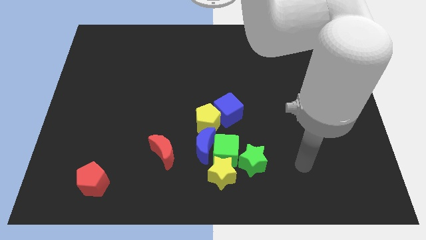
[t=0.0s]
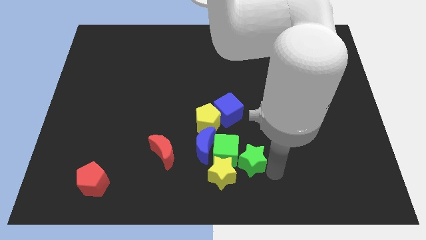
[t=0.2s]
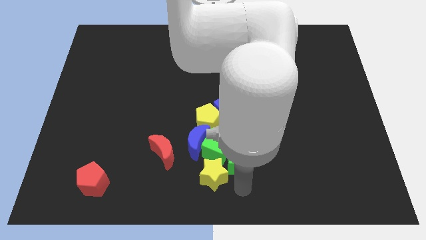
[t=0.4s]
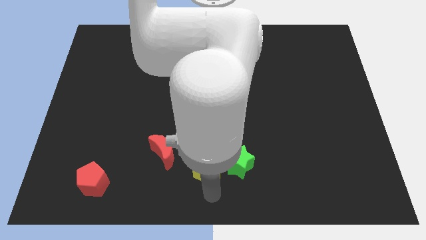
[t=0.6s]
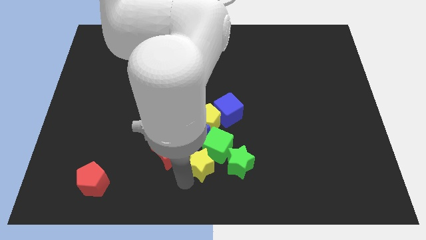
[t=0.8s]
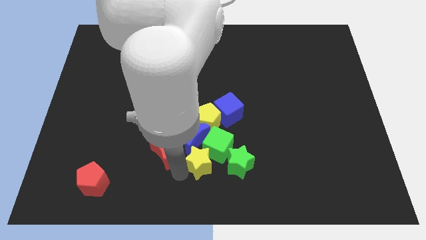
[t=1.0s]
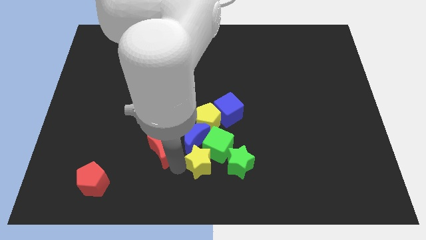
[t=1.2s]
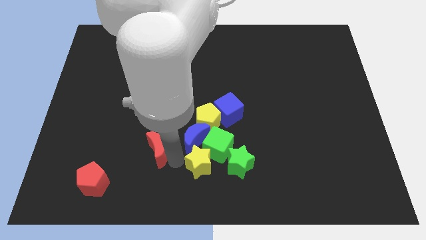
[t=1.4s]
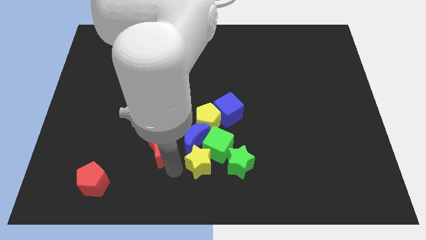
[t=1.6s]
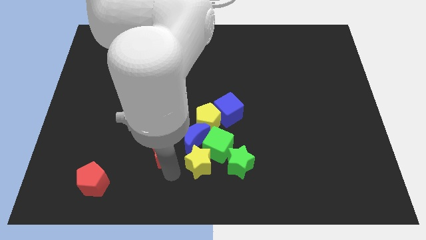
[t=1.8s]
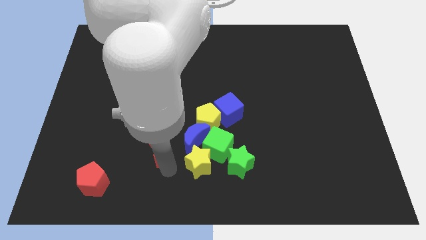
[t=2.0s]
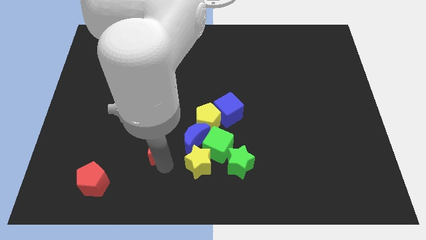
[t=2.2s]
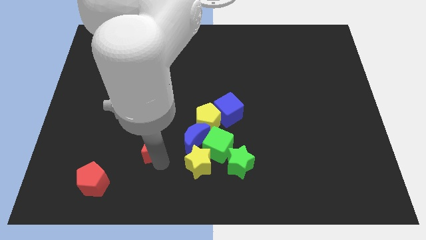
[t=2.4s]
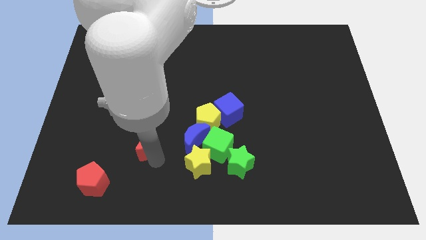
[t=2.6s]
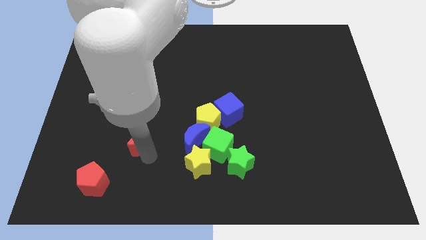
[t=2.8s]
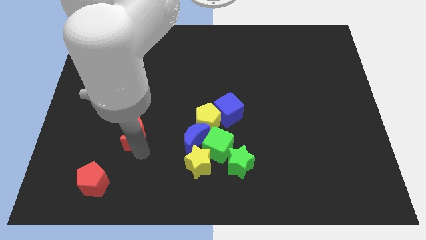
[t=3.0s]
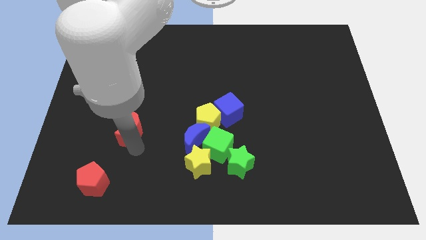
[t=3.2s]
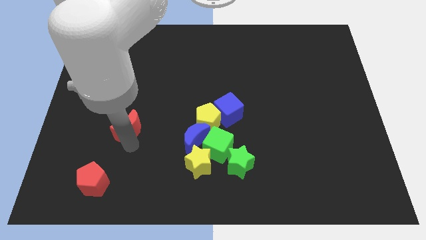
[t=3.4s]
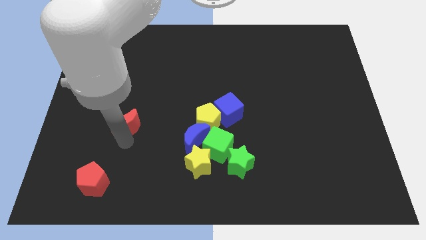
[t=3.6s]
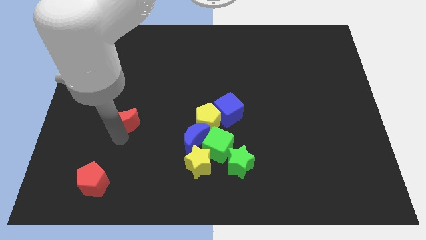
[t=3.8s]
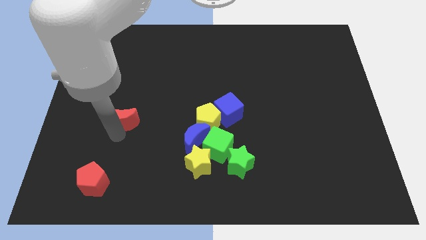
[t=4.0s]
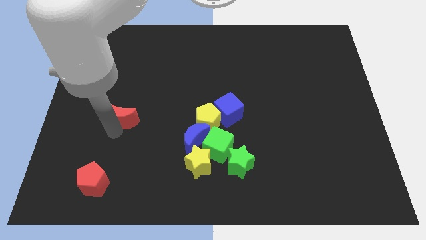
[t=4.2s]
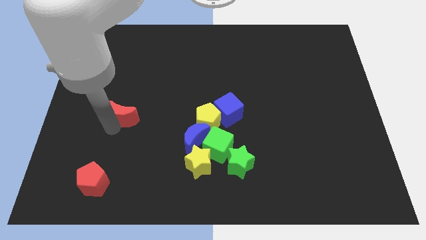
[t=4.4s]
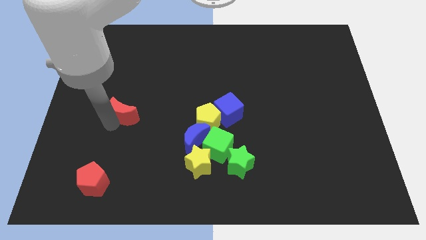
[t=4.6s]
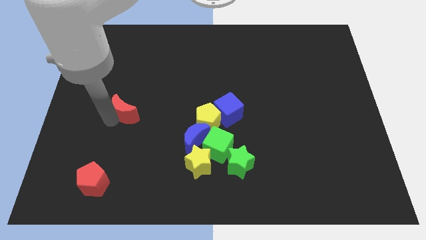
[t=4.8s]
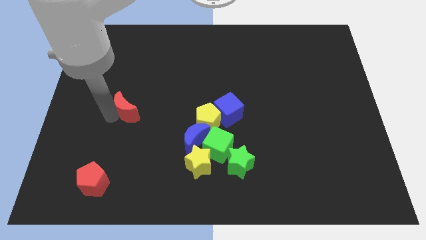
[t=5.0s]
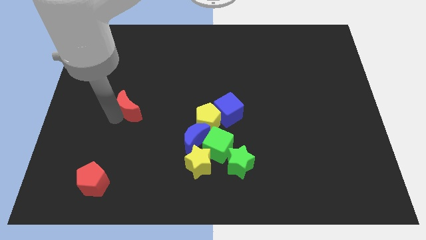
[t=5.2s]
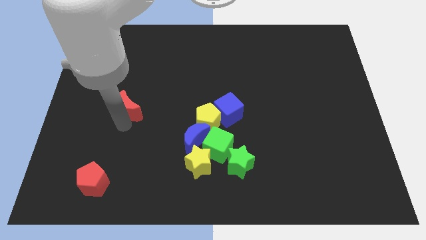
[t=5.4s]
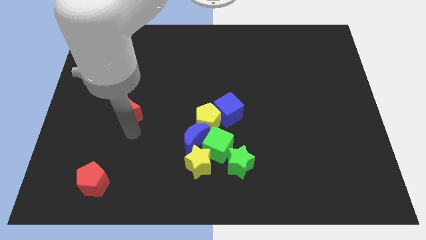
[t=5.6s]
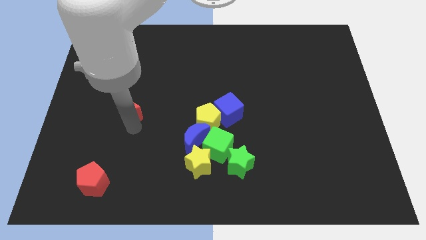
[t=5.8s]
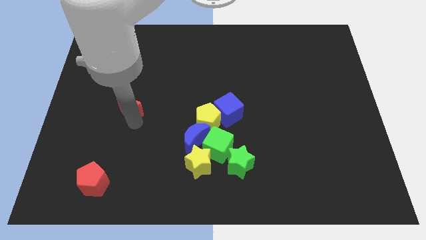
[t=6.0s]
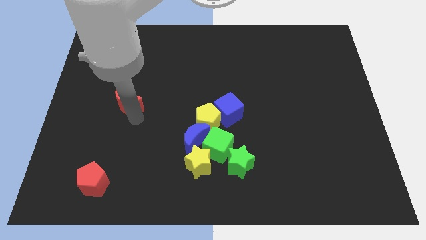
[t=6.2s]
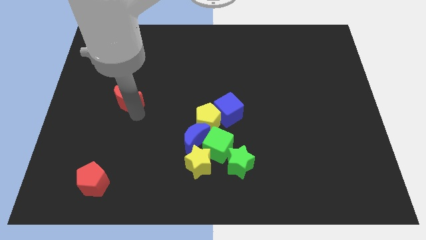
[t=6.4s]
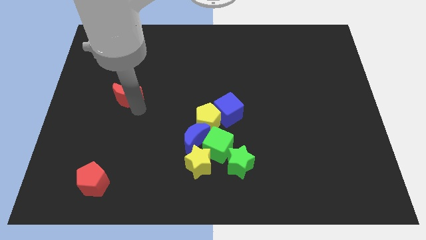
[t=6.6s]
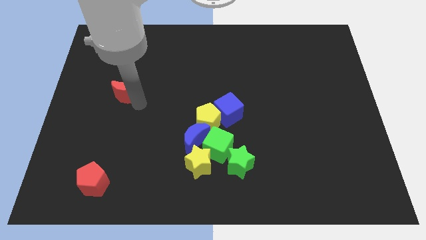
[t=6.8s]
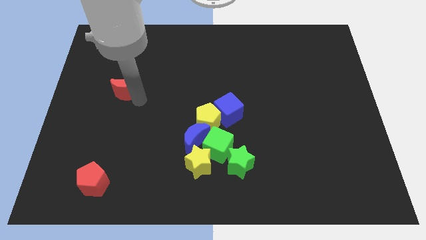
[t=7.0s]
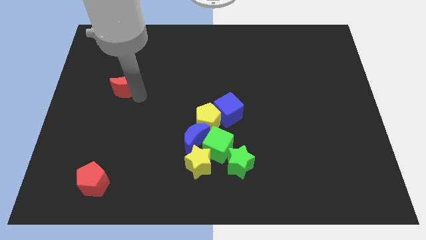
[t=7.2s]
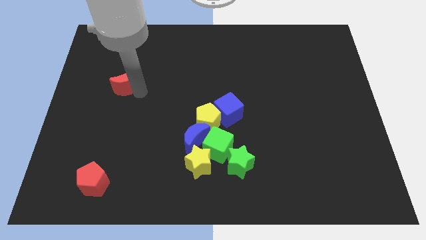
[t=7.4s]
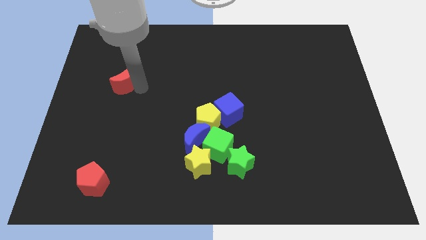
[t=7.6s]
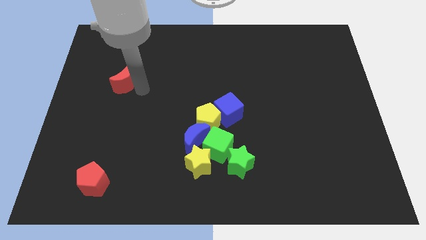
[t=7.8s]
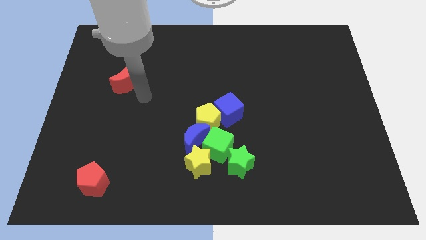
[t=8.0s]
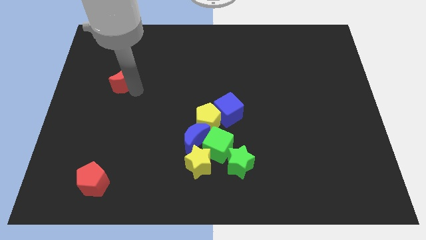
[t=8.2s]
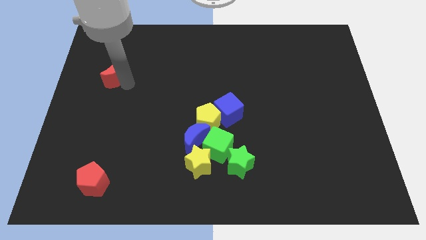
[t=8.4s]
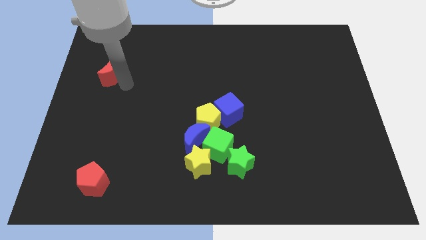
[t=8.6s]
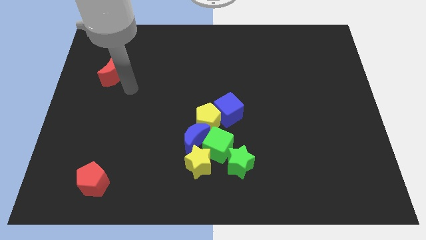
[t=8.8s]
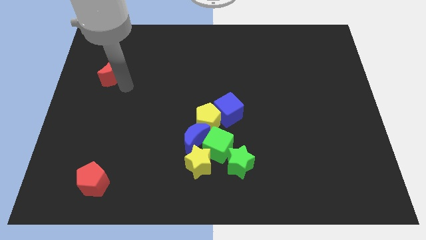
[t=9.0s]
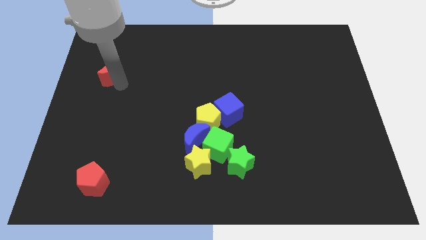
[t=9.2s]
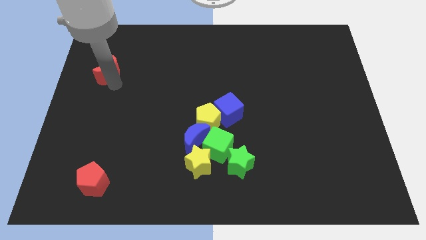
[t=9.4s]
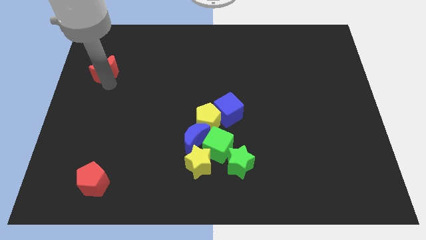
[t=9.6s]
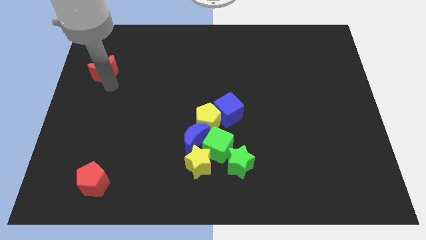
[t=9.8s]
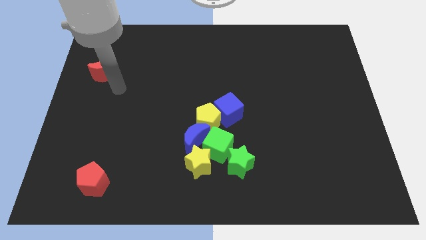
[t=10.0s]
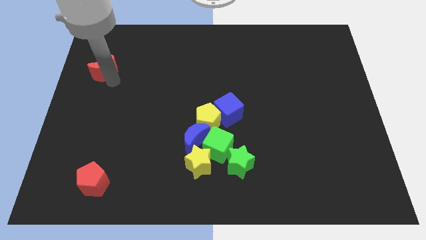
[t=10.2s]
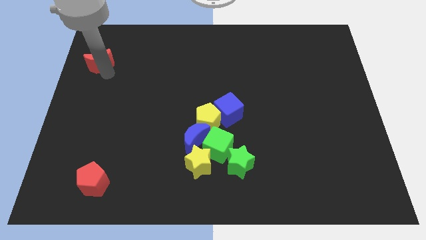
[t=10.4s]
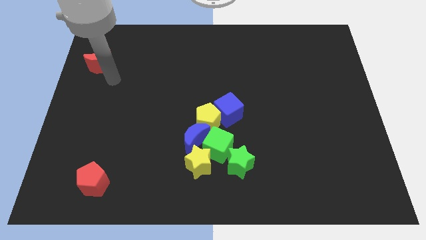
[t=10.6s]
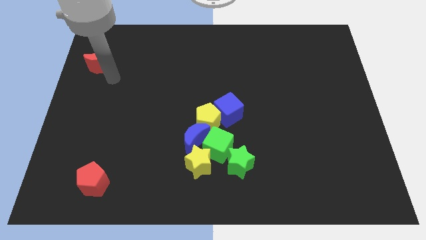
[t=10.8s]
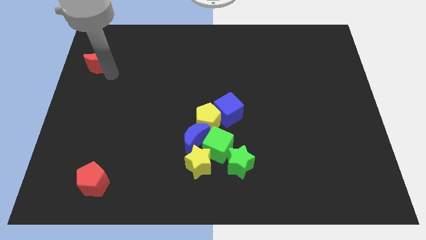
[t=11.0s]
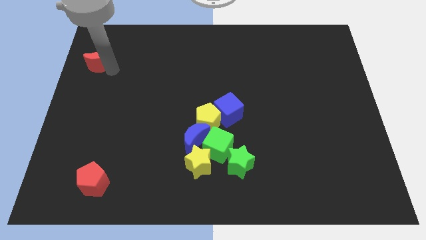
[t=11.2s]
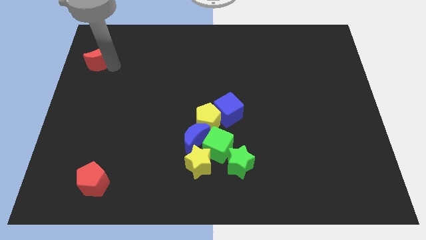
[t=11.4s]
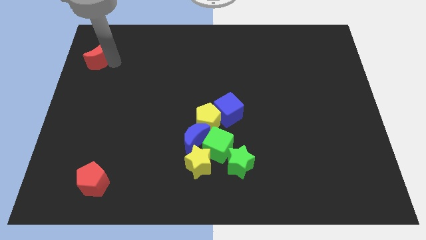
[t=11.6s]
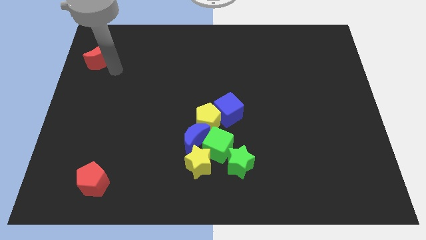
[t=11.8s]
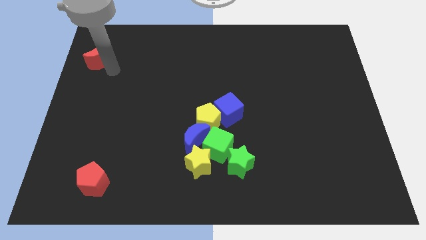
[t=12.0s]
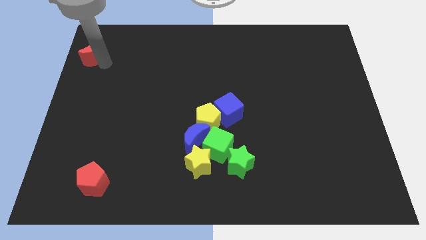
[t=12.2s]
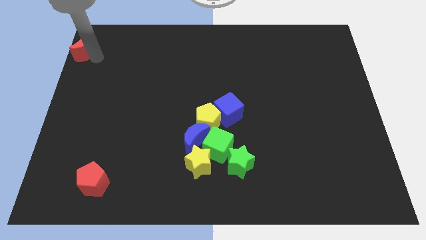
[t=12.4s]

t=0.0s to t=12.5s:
move the red moon to the top left of the board

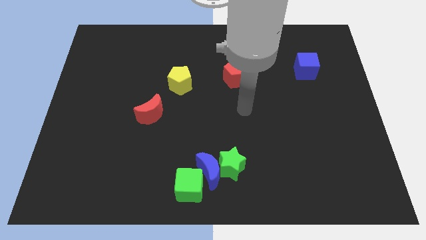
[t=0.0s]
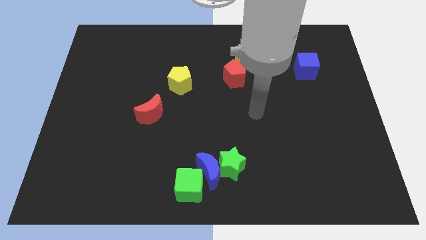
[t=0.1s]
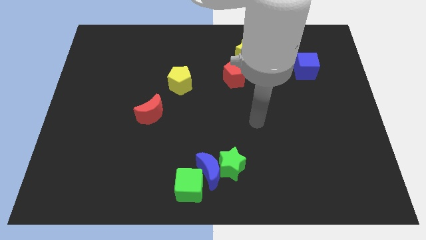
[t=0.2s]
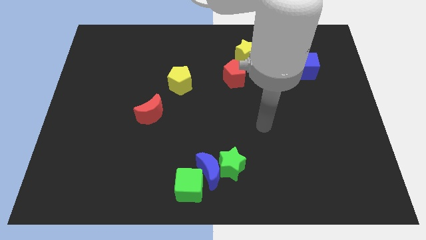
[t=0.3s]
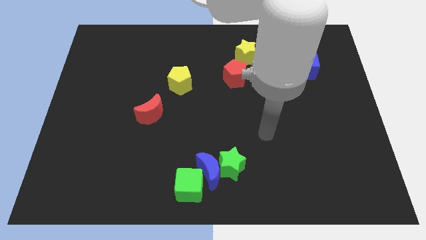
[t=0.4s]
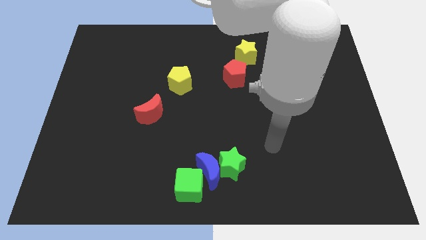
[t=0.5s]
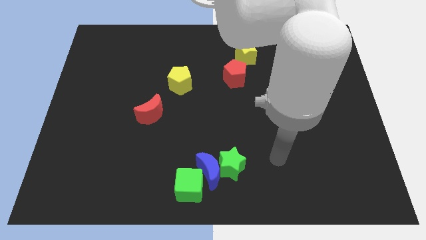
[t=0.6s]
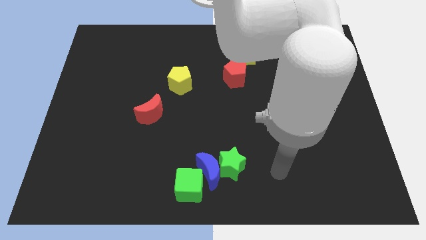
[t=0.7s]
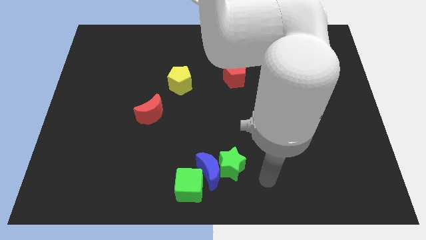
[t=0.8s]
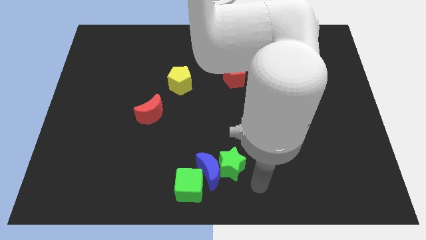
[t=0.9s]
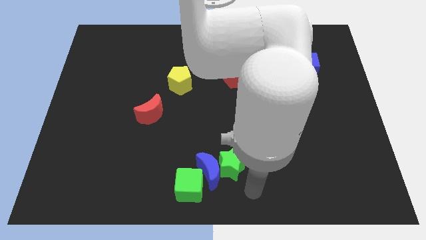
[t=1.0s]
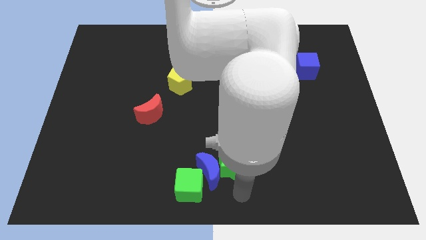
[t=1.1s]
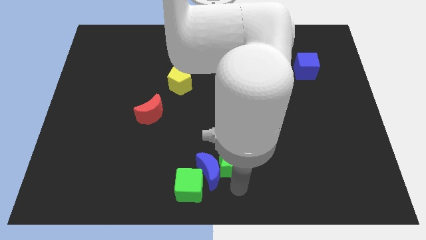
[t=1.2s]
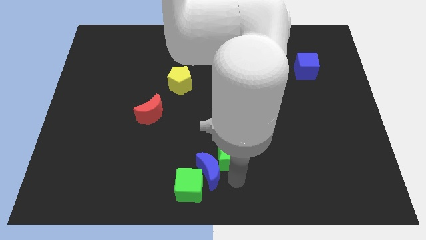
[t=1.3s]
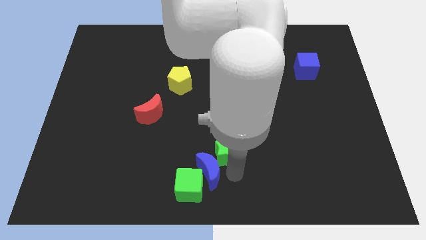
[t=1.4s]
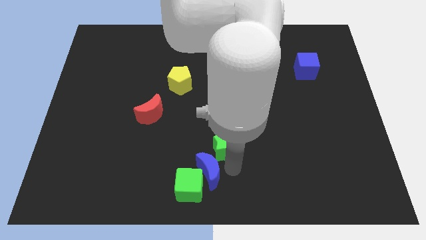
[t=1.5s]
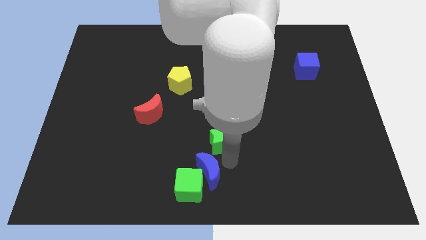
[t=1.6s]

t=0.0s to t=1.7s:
put the green star to the middle of the board
